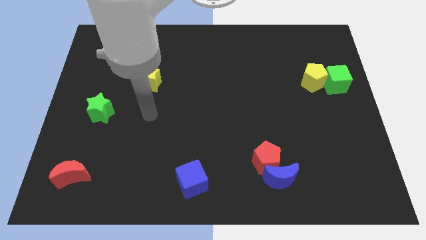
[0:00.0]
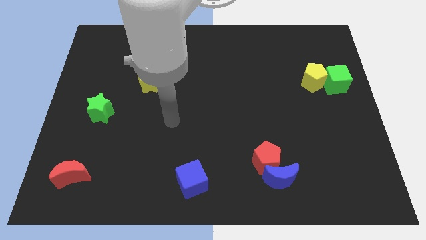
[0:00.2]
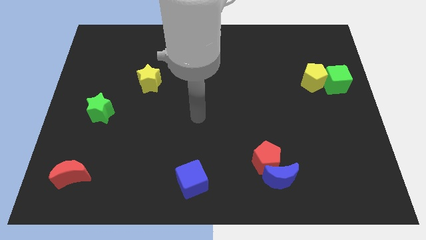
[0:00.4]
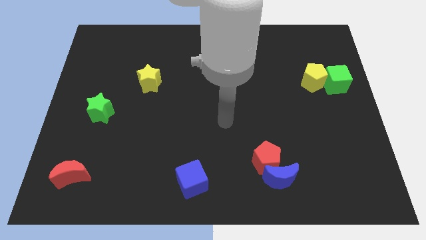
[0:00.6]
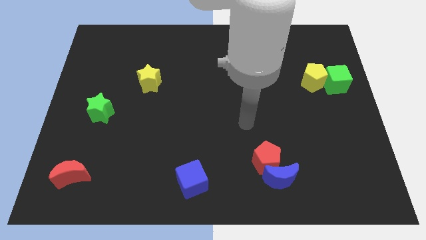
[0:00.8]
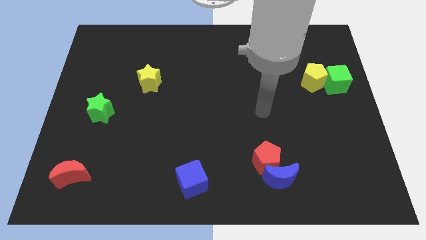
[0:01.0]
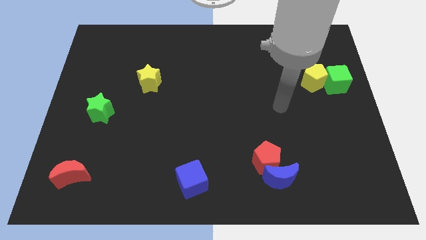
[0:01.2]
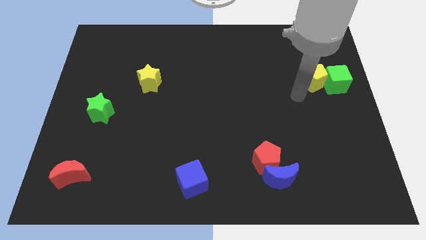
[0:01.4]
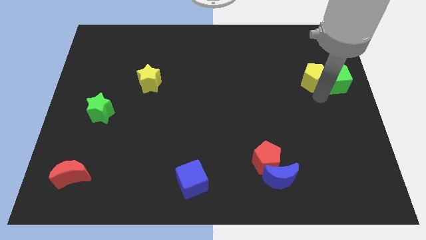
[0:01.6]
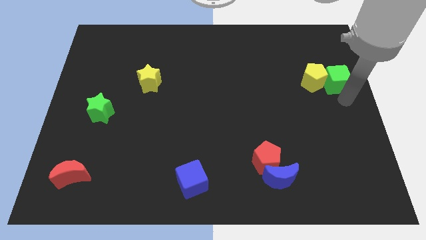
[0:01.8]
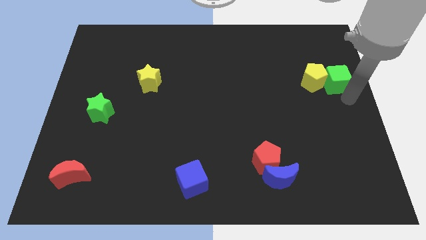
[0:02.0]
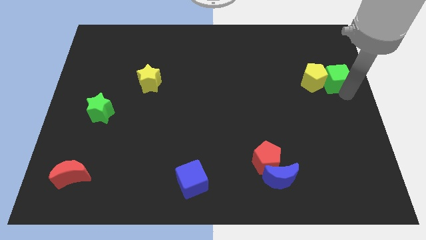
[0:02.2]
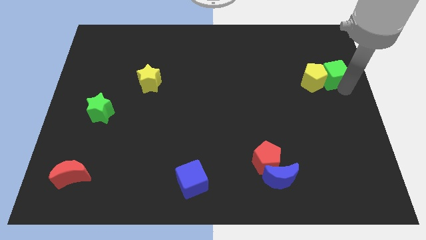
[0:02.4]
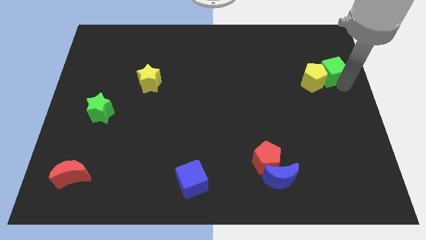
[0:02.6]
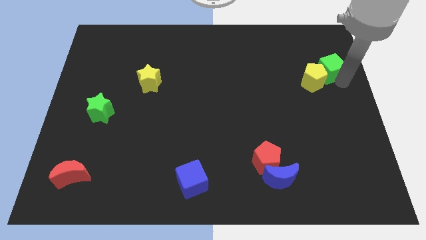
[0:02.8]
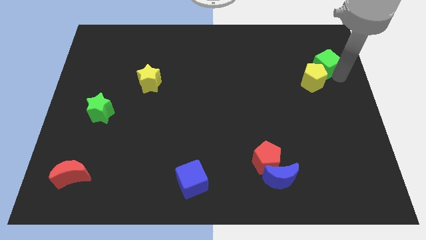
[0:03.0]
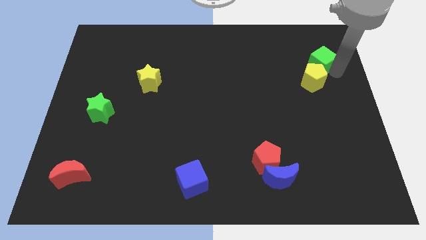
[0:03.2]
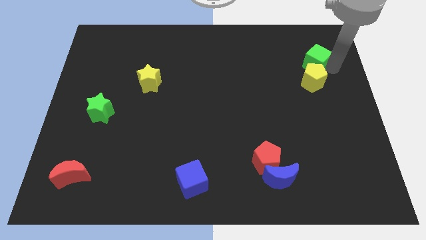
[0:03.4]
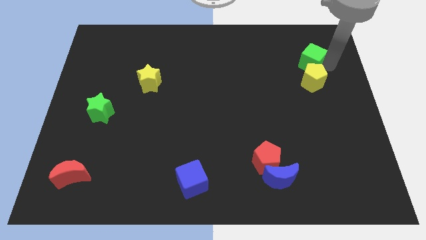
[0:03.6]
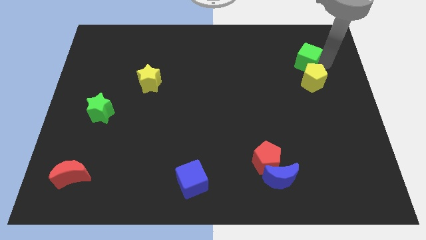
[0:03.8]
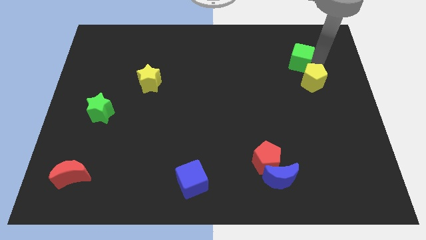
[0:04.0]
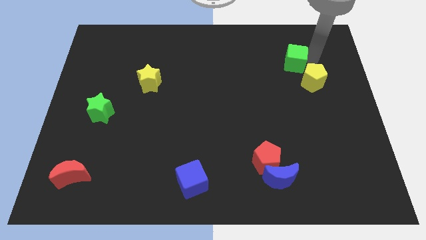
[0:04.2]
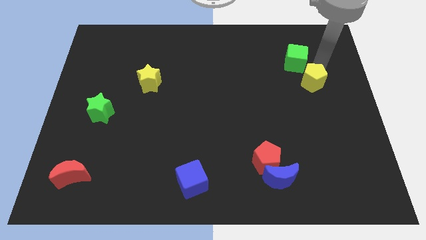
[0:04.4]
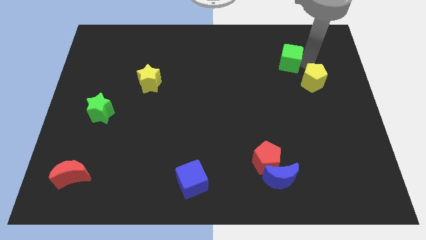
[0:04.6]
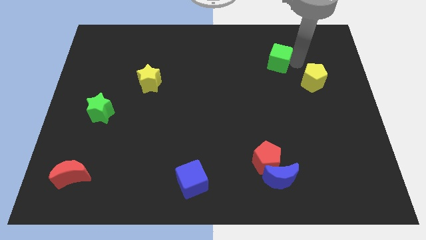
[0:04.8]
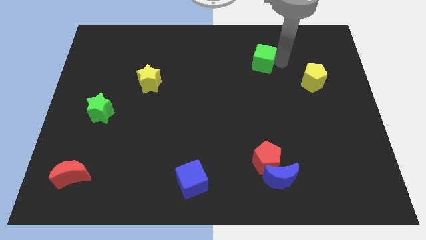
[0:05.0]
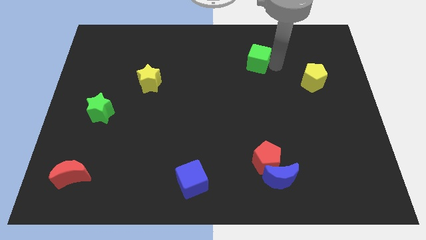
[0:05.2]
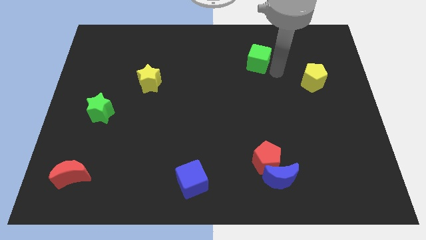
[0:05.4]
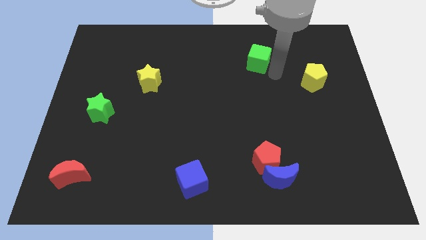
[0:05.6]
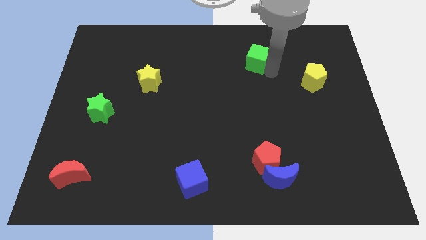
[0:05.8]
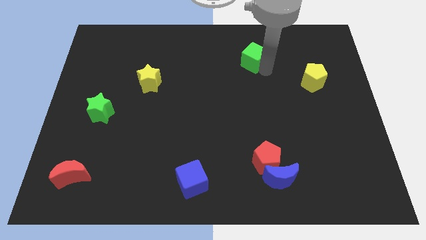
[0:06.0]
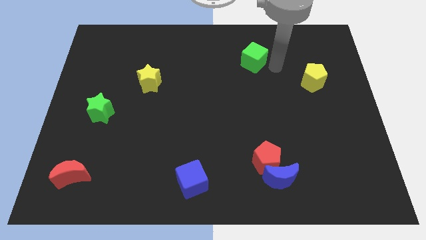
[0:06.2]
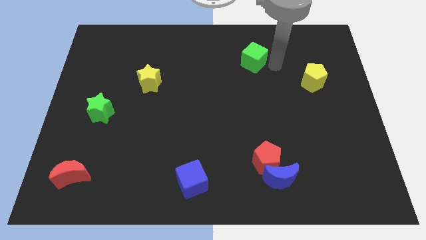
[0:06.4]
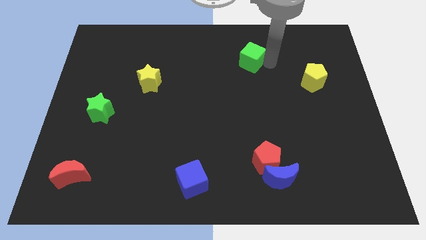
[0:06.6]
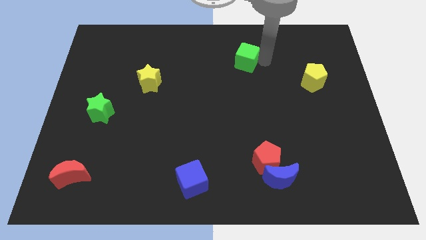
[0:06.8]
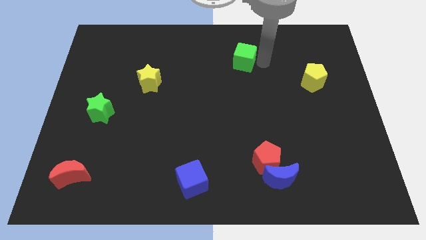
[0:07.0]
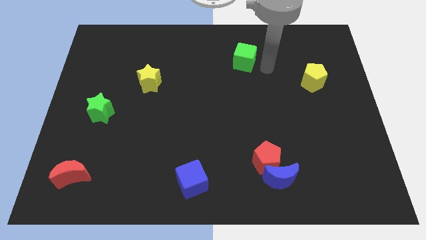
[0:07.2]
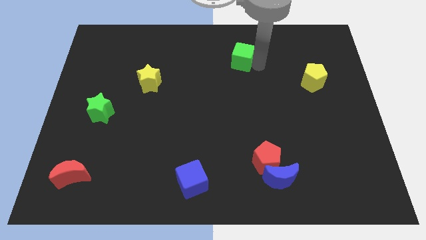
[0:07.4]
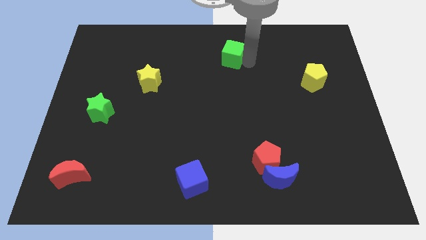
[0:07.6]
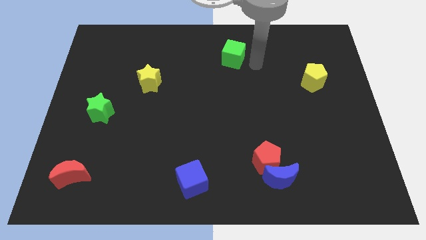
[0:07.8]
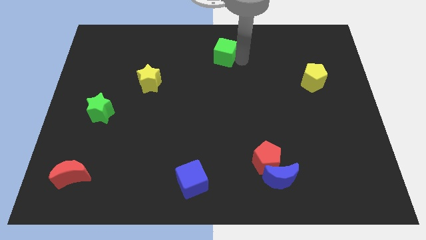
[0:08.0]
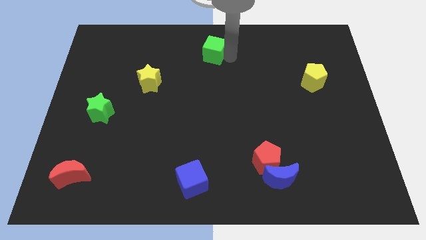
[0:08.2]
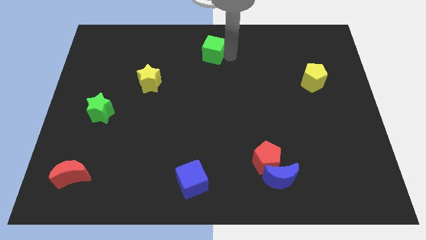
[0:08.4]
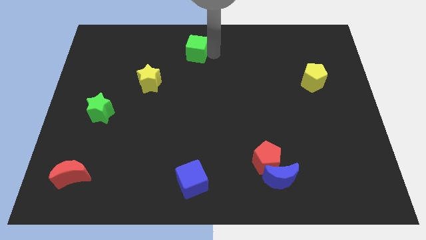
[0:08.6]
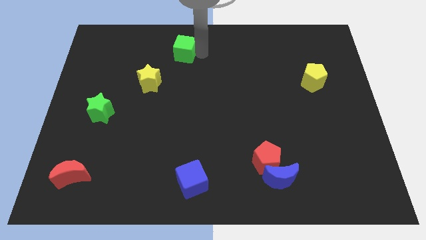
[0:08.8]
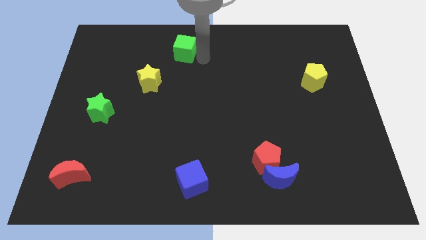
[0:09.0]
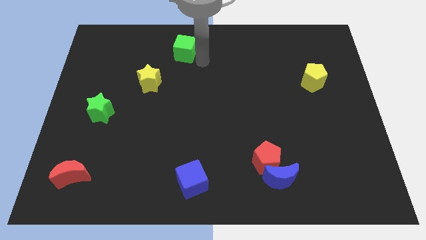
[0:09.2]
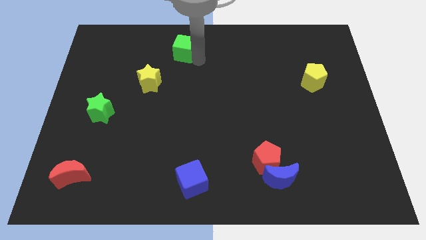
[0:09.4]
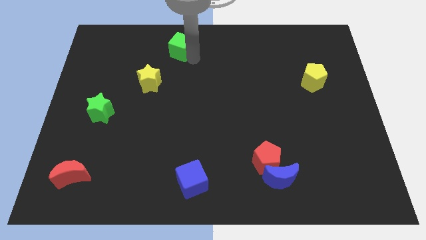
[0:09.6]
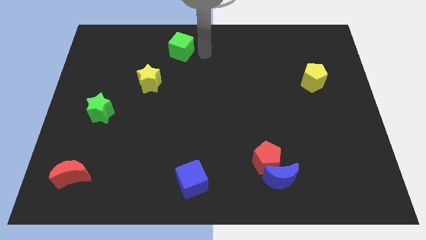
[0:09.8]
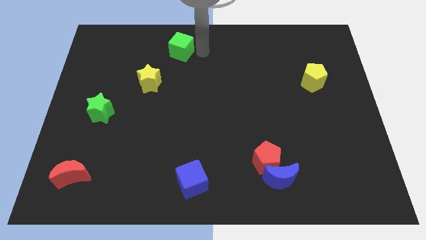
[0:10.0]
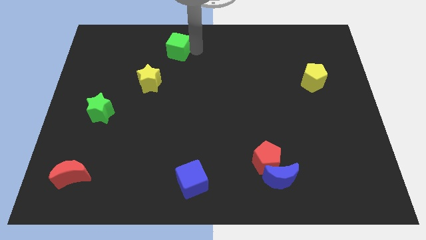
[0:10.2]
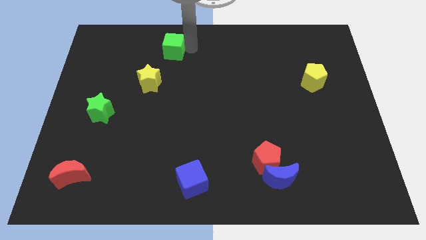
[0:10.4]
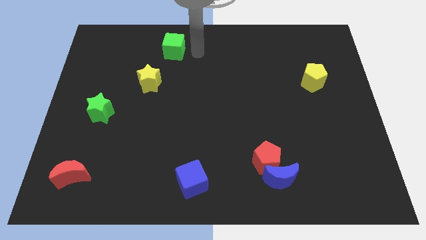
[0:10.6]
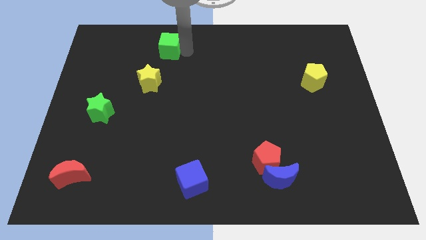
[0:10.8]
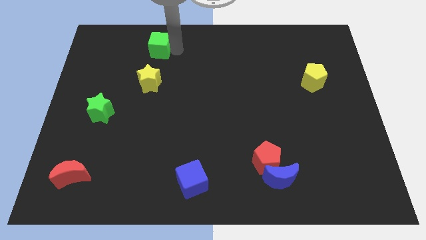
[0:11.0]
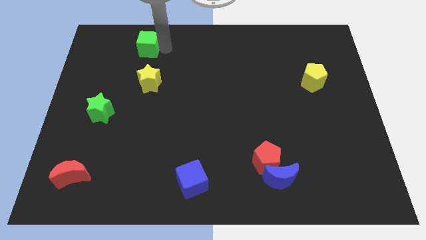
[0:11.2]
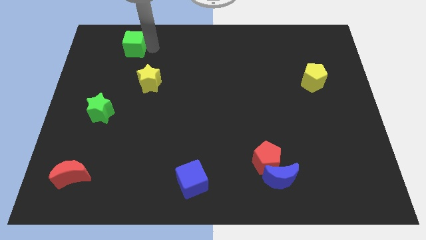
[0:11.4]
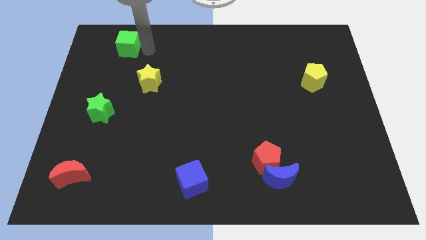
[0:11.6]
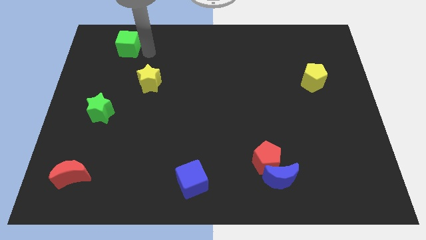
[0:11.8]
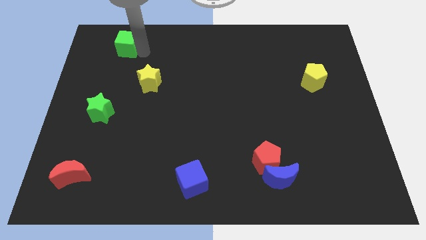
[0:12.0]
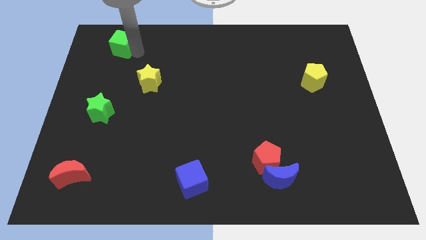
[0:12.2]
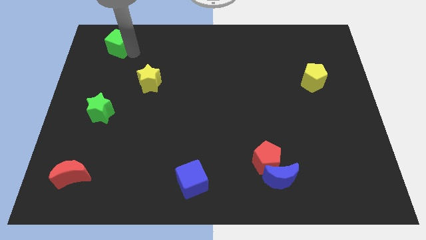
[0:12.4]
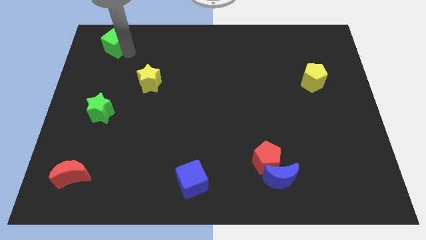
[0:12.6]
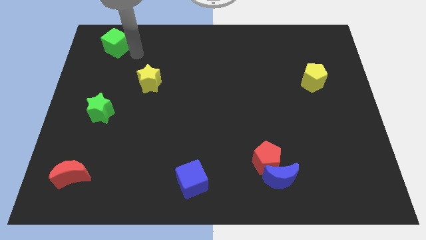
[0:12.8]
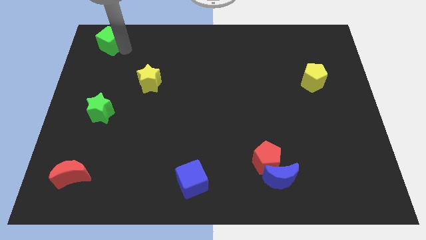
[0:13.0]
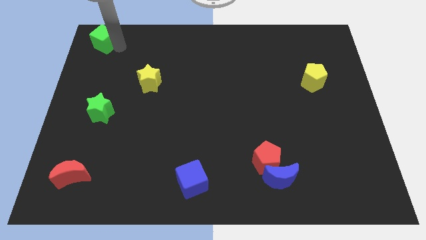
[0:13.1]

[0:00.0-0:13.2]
move the green cube to the top left of the board

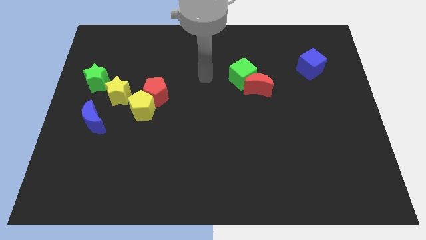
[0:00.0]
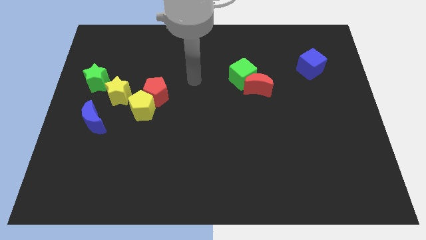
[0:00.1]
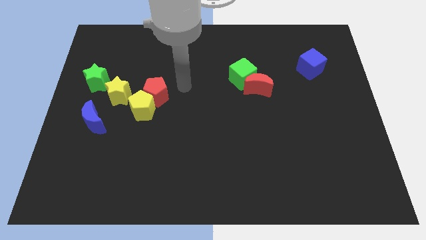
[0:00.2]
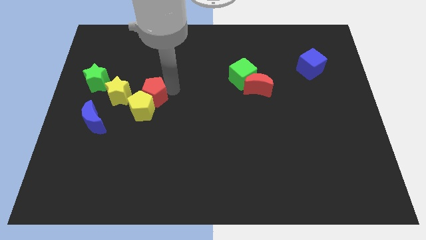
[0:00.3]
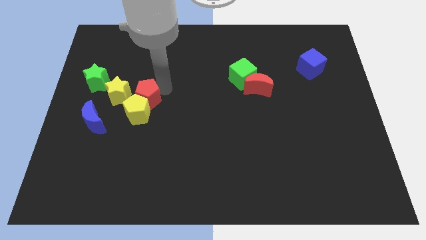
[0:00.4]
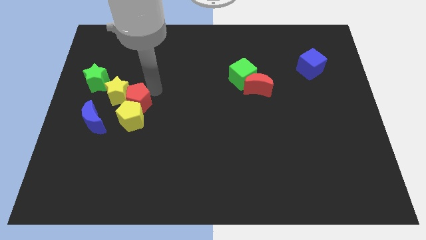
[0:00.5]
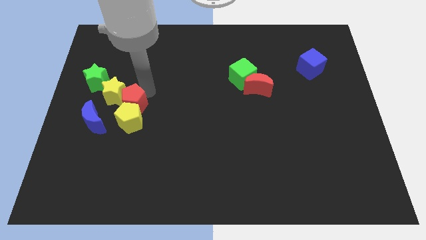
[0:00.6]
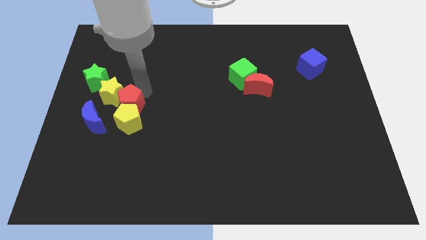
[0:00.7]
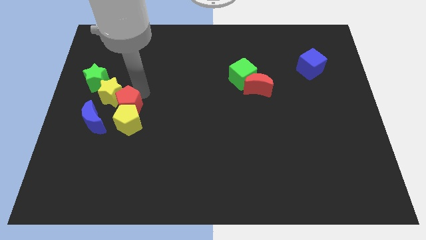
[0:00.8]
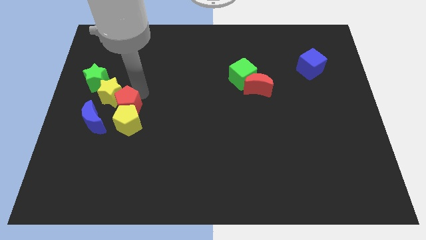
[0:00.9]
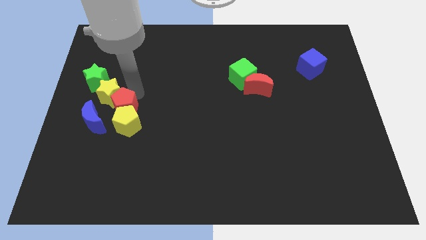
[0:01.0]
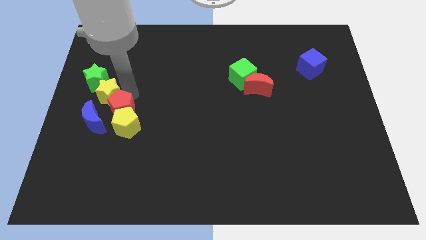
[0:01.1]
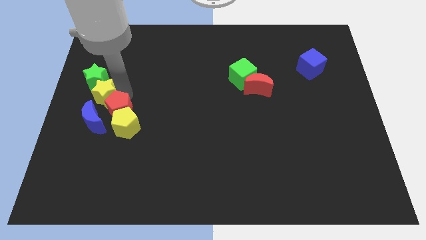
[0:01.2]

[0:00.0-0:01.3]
put the yellow star to the left side of the board

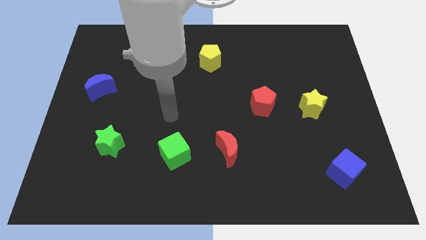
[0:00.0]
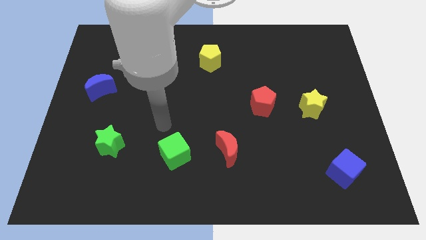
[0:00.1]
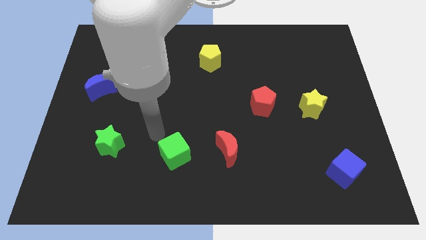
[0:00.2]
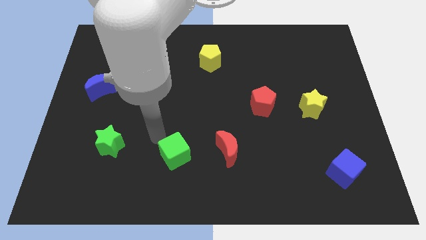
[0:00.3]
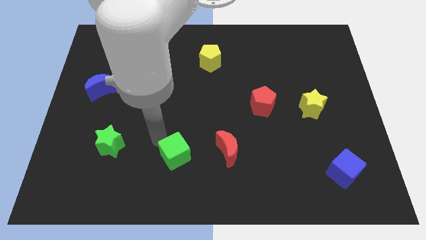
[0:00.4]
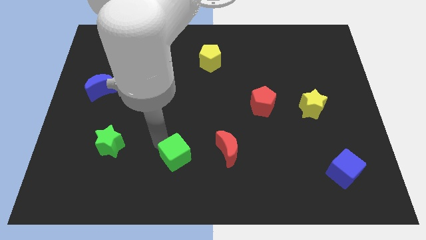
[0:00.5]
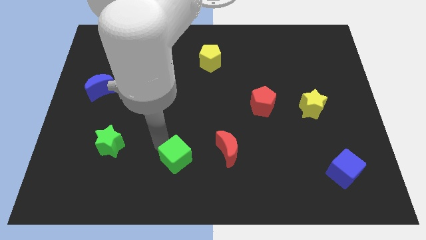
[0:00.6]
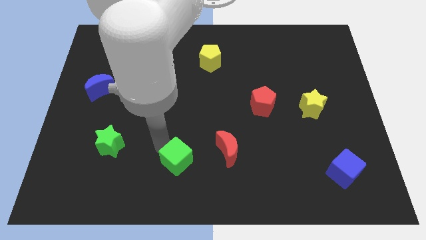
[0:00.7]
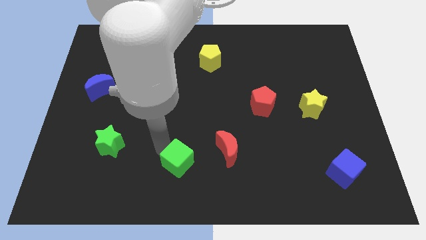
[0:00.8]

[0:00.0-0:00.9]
move the green cube to the bottom
